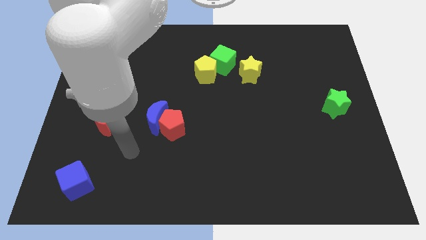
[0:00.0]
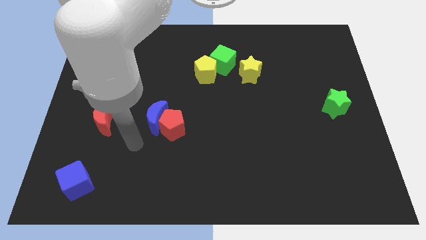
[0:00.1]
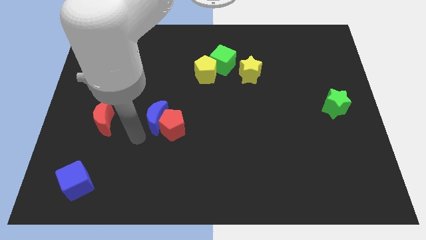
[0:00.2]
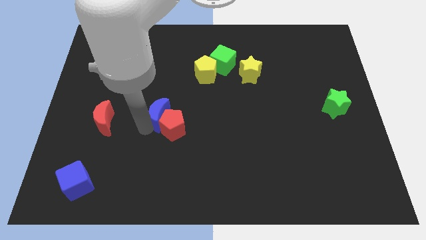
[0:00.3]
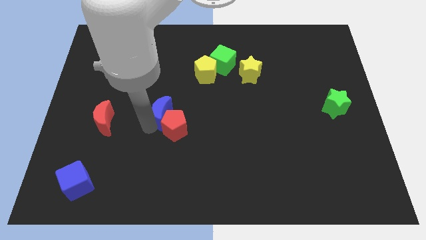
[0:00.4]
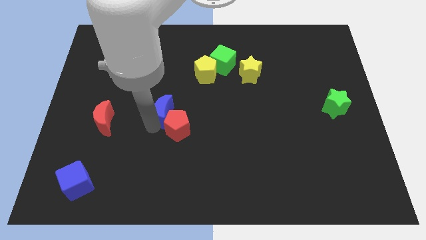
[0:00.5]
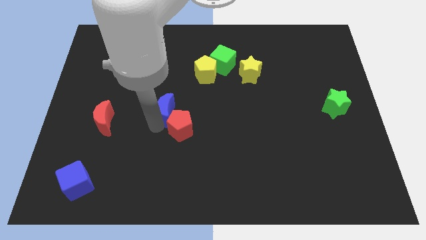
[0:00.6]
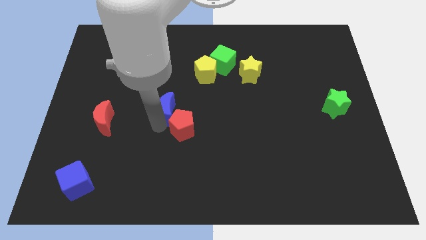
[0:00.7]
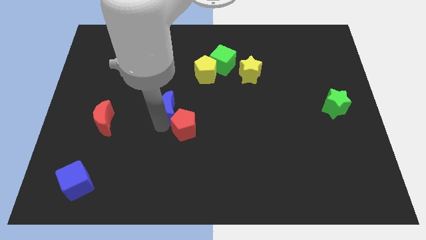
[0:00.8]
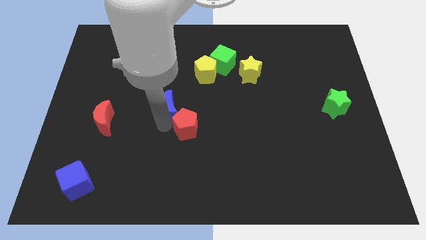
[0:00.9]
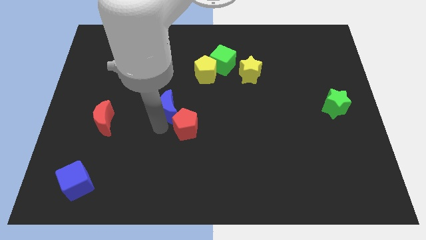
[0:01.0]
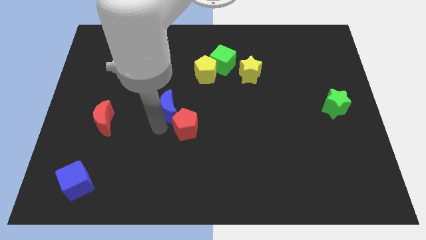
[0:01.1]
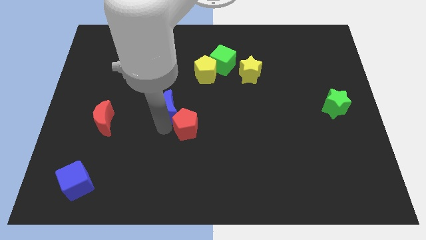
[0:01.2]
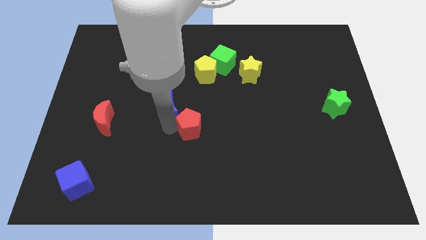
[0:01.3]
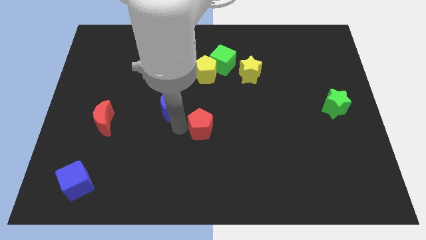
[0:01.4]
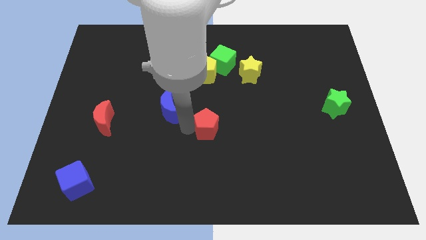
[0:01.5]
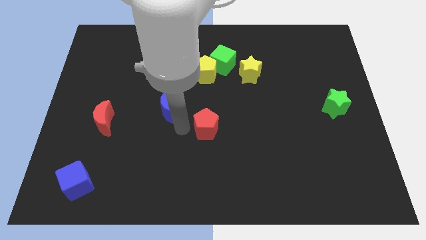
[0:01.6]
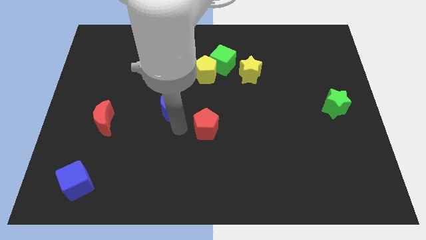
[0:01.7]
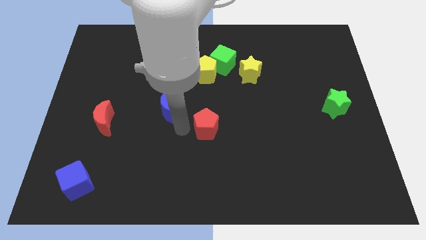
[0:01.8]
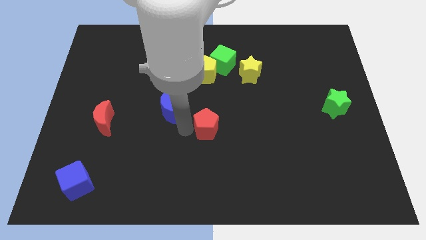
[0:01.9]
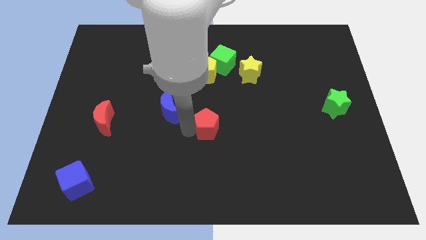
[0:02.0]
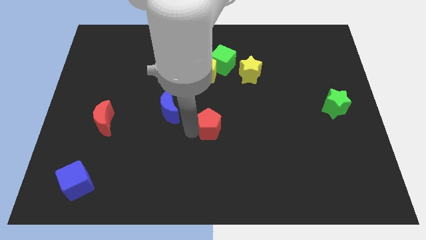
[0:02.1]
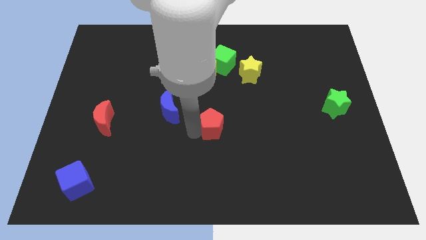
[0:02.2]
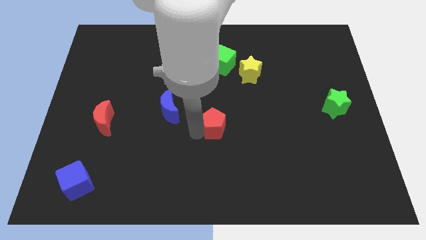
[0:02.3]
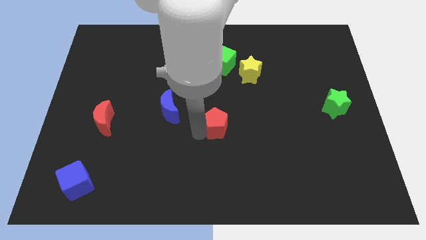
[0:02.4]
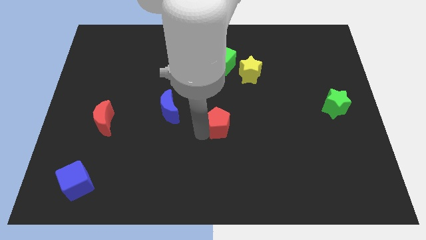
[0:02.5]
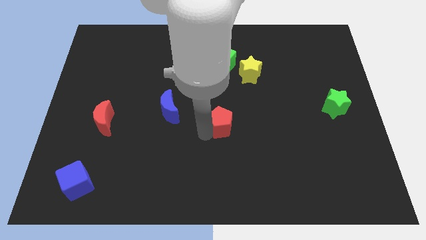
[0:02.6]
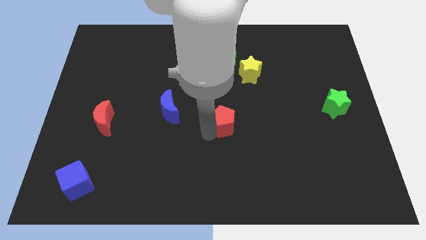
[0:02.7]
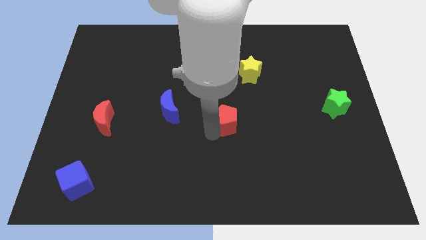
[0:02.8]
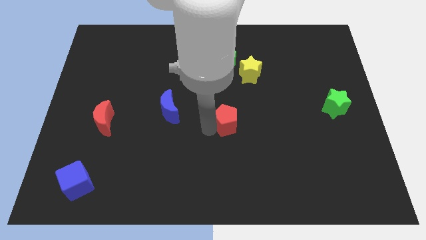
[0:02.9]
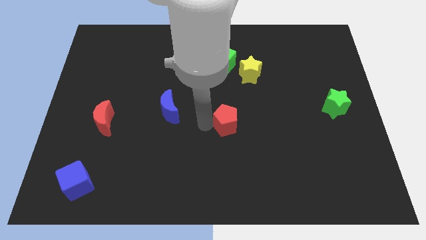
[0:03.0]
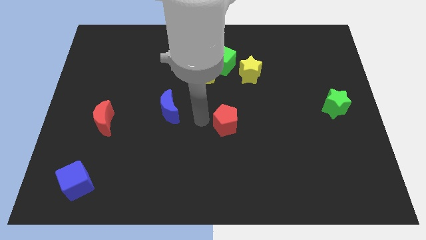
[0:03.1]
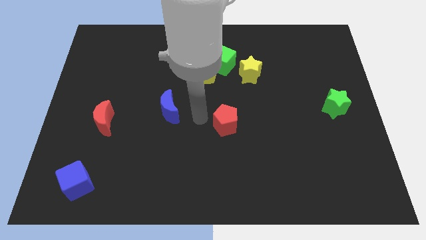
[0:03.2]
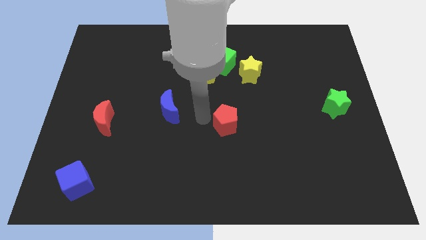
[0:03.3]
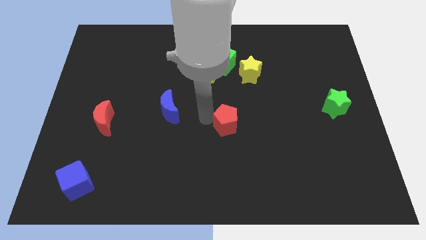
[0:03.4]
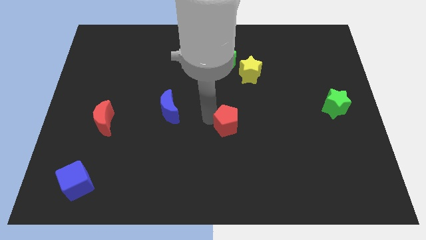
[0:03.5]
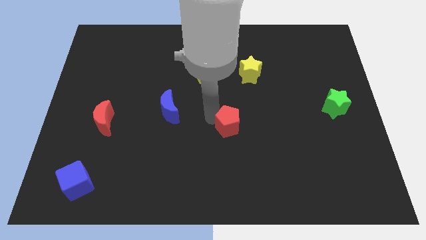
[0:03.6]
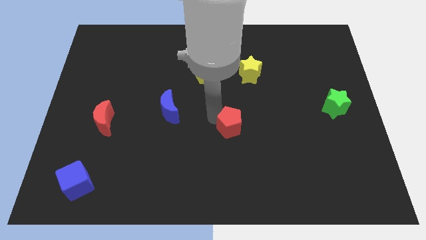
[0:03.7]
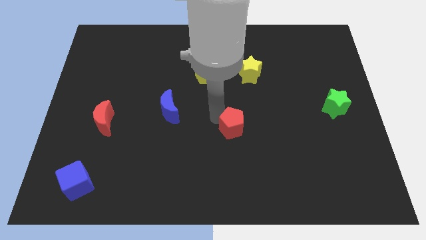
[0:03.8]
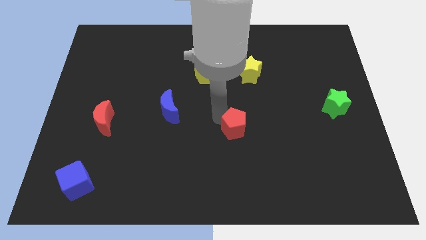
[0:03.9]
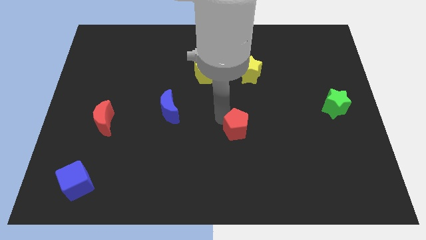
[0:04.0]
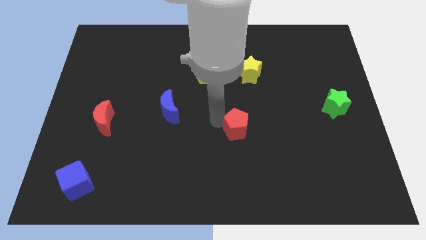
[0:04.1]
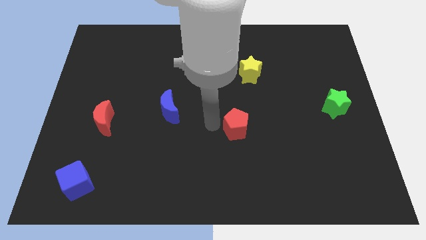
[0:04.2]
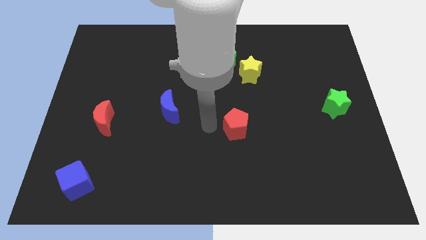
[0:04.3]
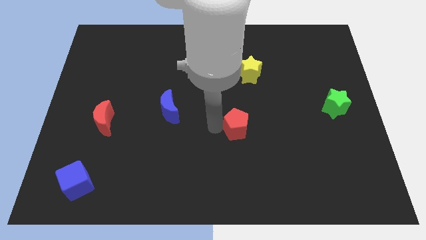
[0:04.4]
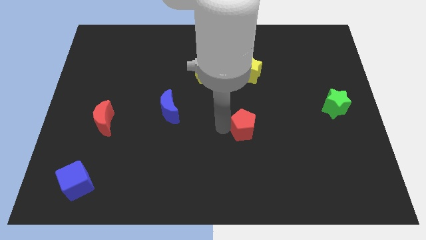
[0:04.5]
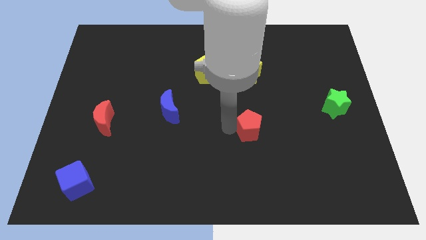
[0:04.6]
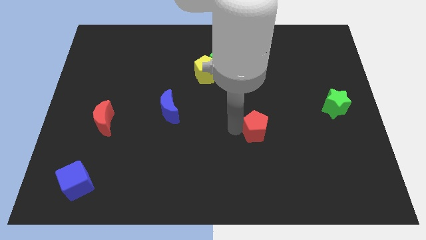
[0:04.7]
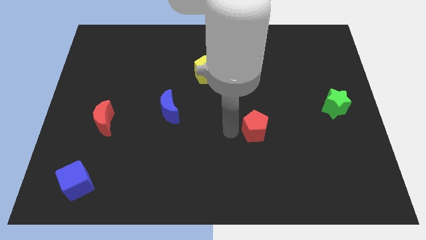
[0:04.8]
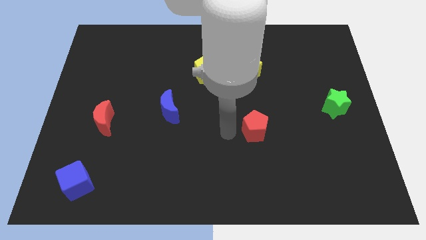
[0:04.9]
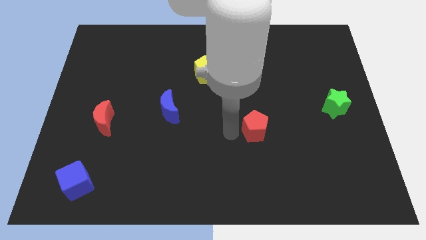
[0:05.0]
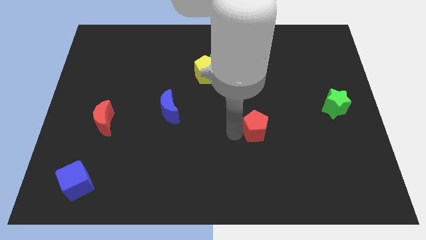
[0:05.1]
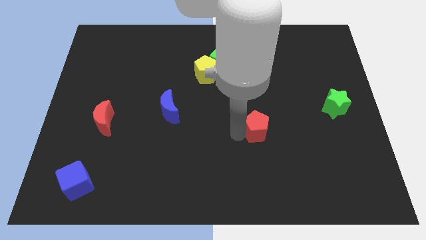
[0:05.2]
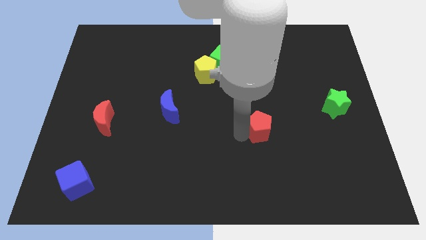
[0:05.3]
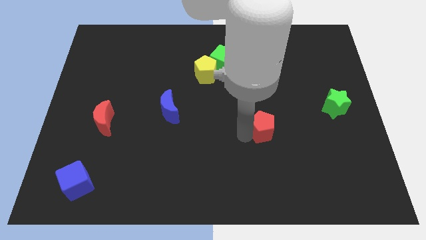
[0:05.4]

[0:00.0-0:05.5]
slide the red pentagon to the right

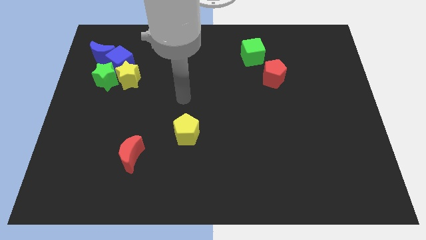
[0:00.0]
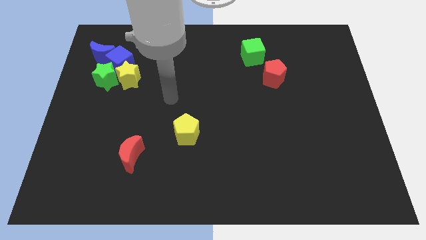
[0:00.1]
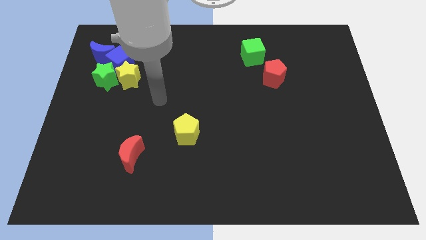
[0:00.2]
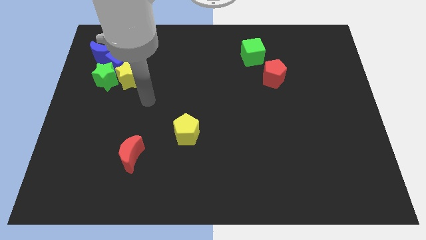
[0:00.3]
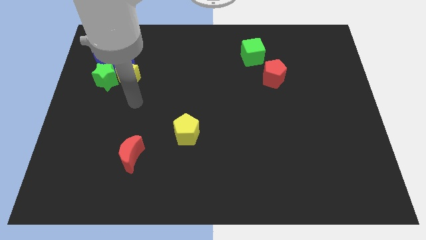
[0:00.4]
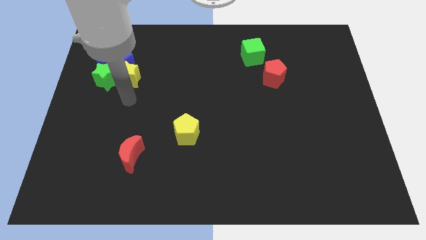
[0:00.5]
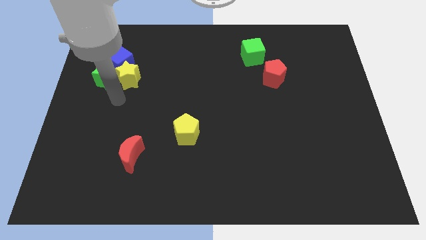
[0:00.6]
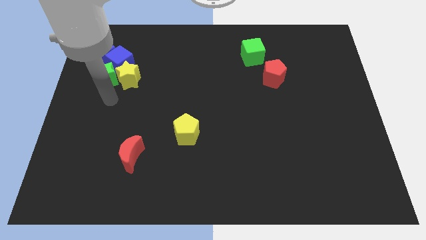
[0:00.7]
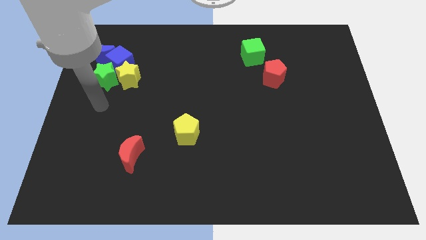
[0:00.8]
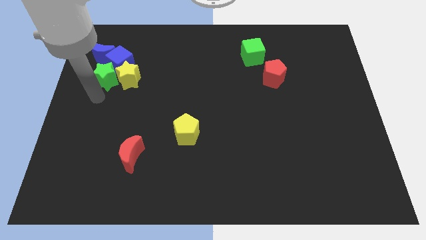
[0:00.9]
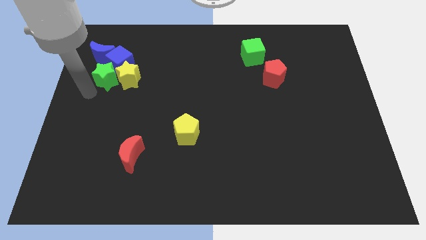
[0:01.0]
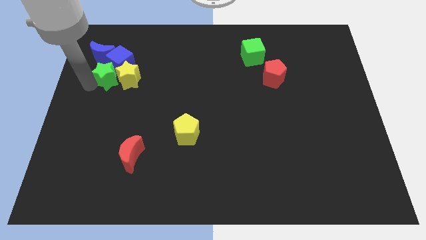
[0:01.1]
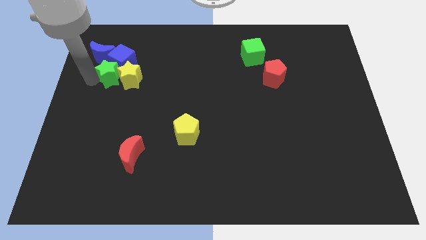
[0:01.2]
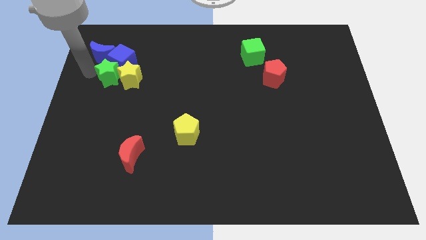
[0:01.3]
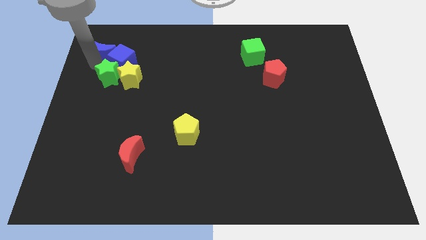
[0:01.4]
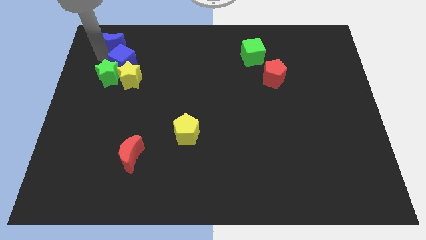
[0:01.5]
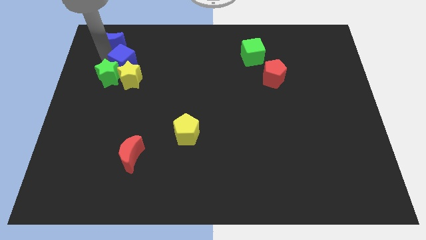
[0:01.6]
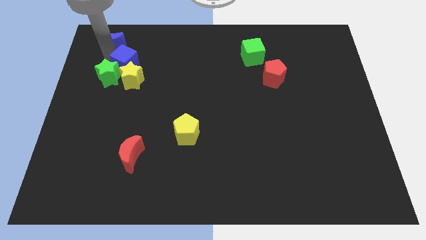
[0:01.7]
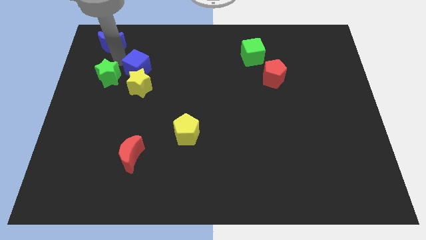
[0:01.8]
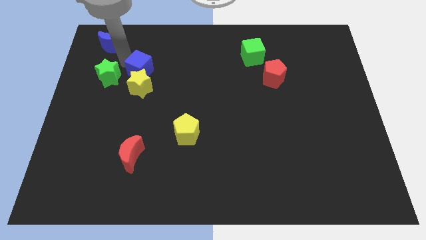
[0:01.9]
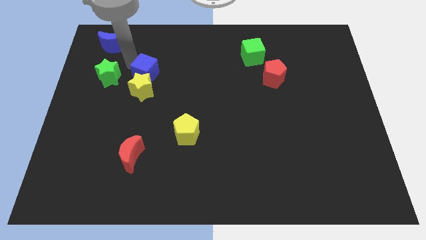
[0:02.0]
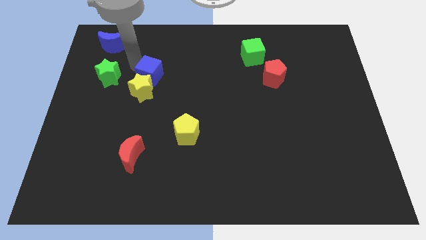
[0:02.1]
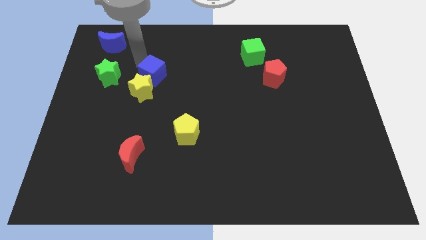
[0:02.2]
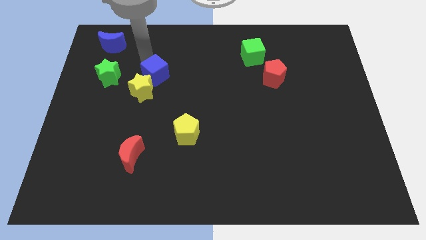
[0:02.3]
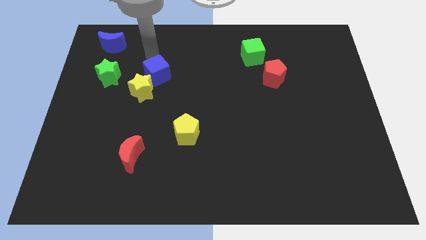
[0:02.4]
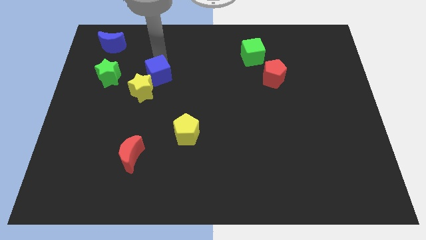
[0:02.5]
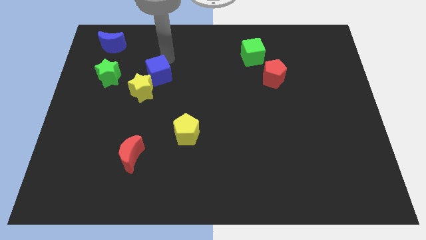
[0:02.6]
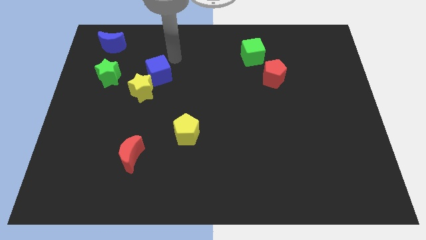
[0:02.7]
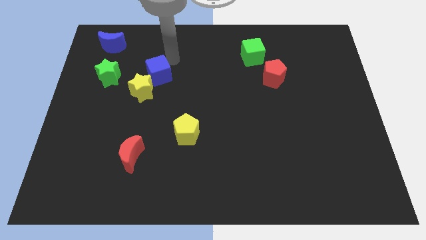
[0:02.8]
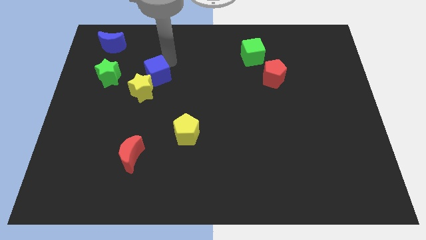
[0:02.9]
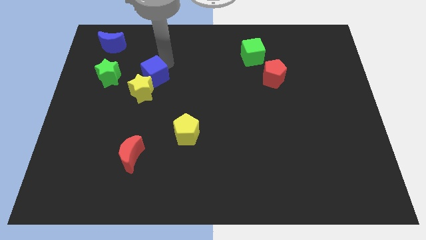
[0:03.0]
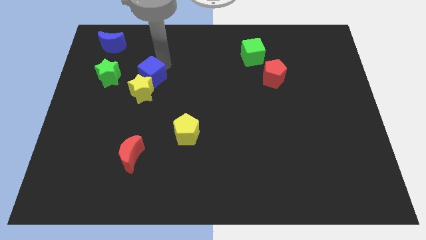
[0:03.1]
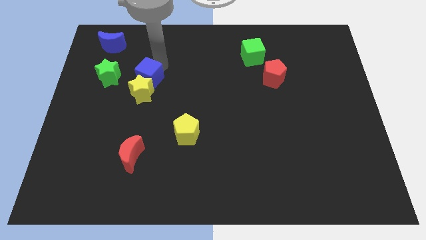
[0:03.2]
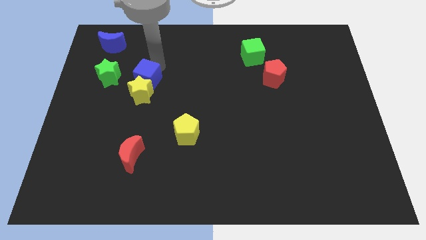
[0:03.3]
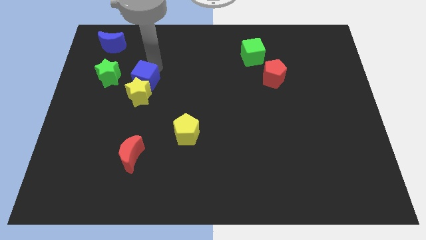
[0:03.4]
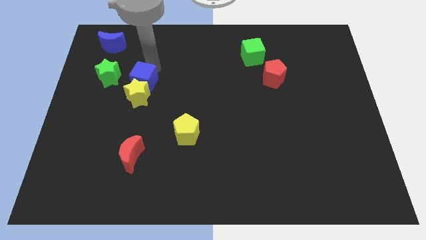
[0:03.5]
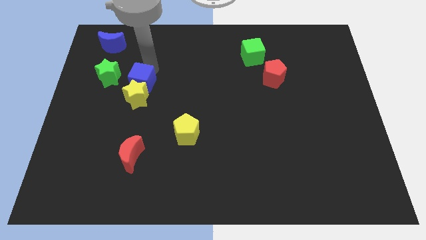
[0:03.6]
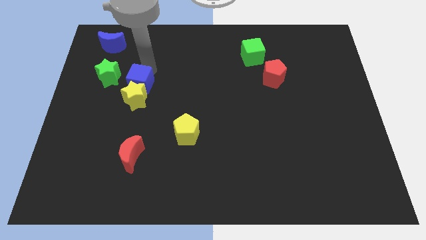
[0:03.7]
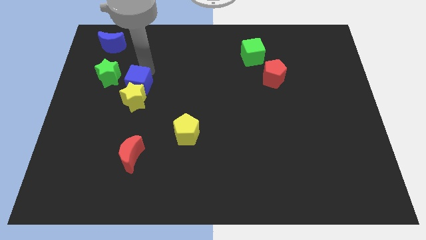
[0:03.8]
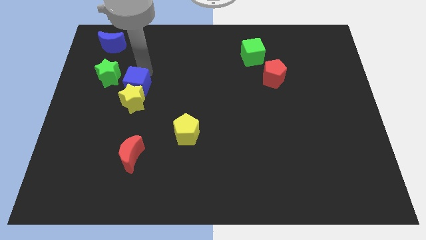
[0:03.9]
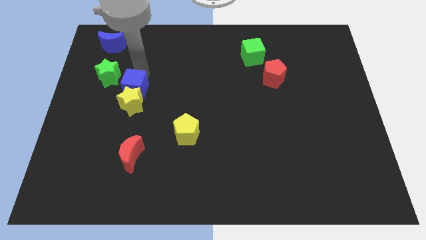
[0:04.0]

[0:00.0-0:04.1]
slide the blue cube down slightly
